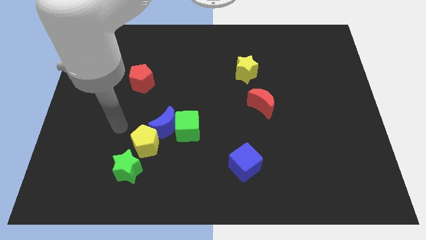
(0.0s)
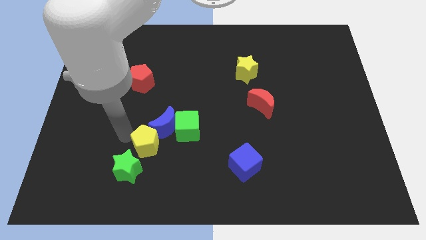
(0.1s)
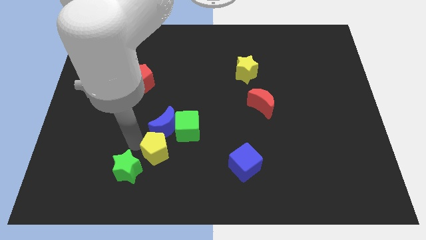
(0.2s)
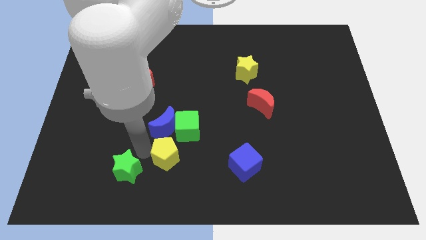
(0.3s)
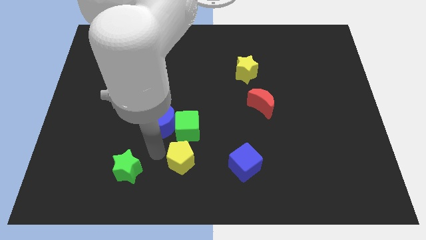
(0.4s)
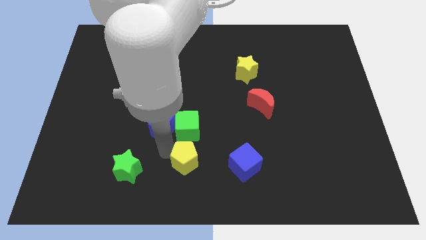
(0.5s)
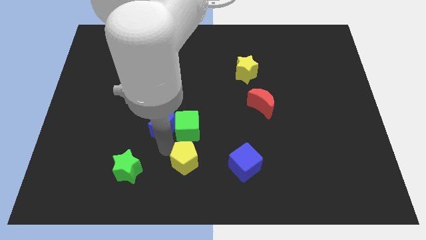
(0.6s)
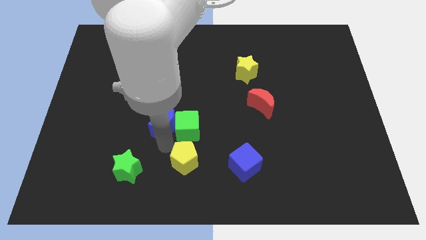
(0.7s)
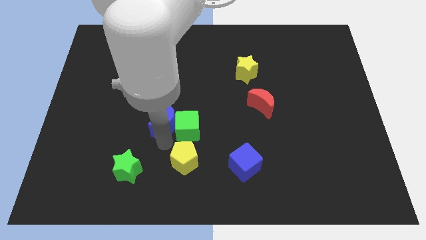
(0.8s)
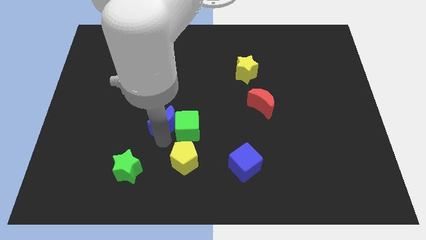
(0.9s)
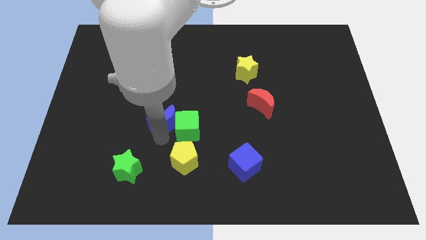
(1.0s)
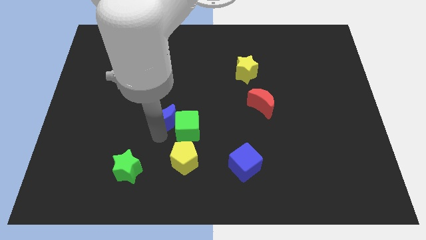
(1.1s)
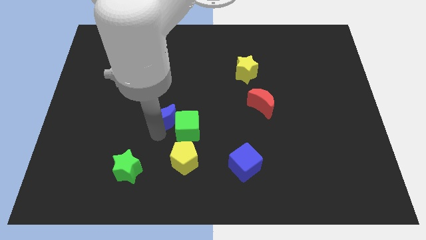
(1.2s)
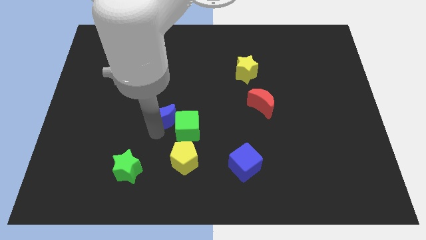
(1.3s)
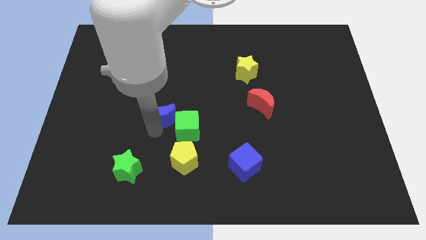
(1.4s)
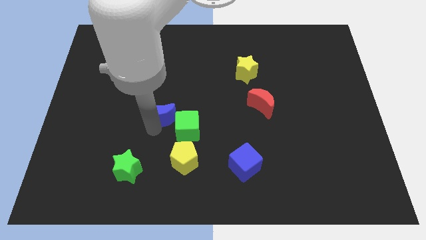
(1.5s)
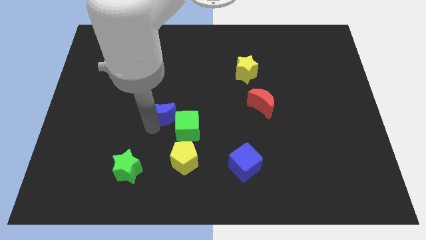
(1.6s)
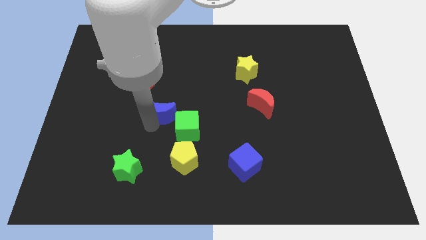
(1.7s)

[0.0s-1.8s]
separate the blue moon from the green cube and yellow pentagon

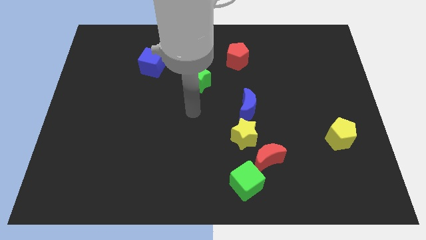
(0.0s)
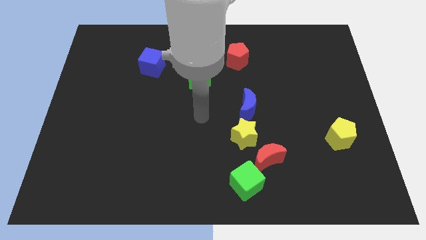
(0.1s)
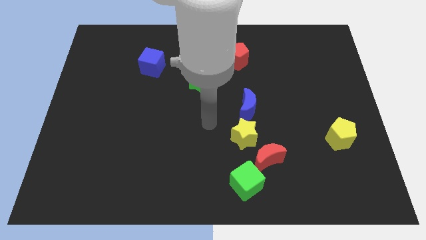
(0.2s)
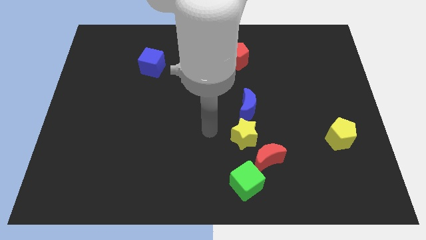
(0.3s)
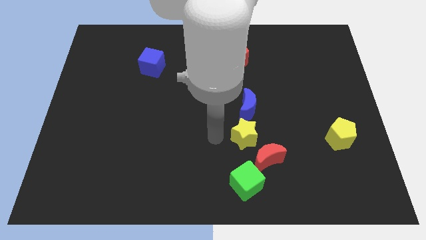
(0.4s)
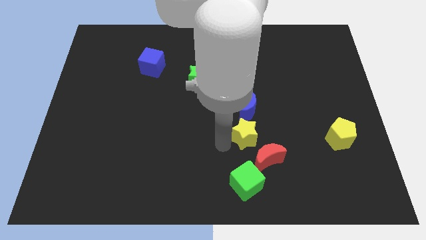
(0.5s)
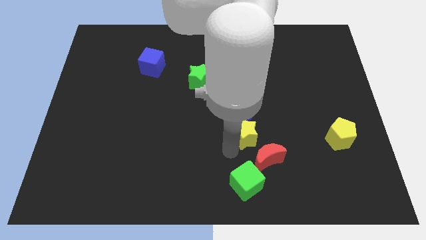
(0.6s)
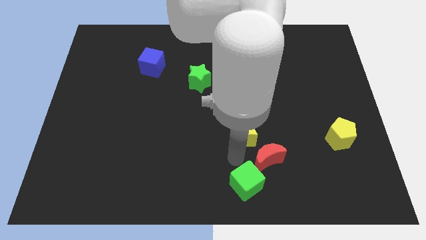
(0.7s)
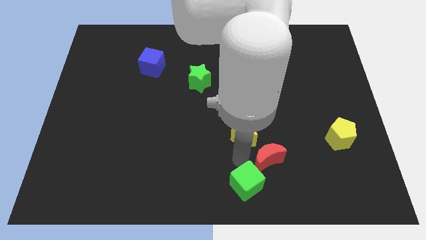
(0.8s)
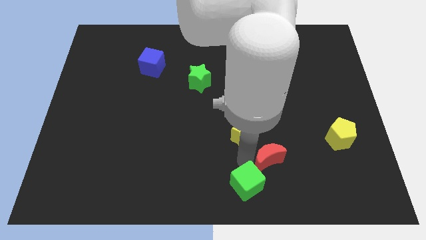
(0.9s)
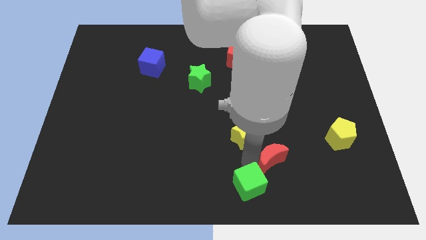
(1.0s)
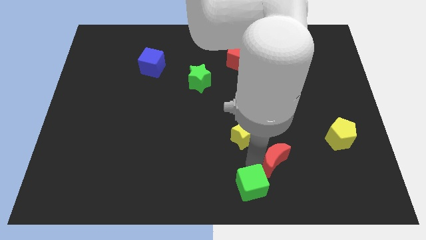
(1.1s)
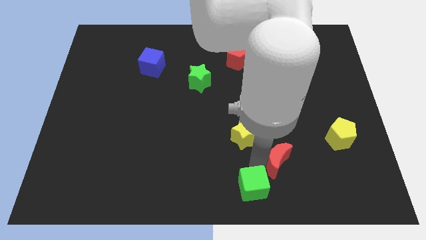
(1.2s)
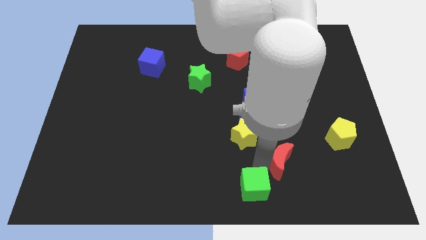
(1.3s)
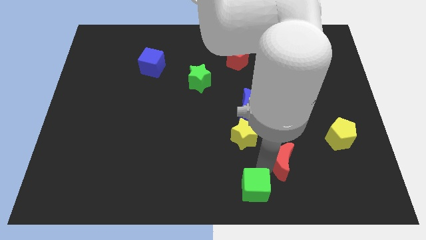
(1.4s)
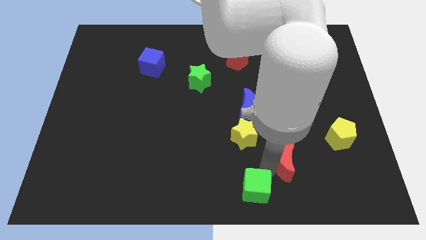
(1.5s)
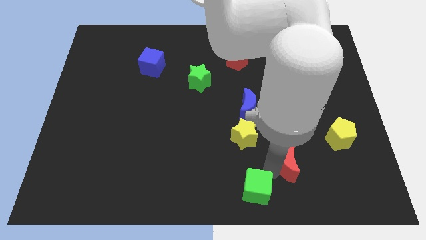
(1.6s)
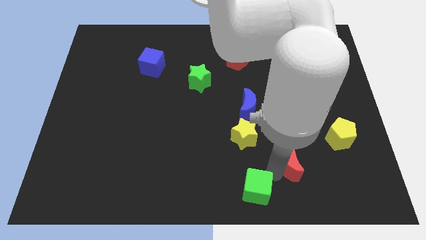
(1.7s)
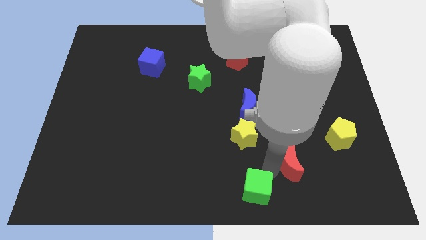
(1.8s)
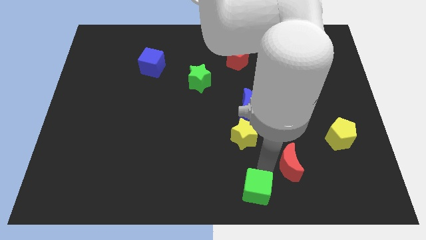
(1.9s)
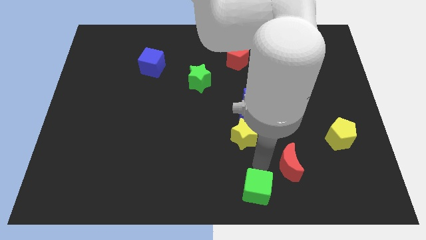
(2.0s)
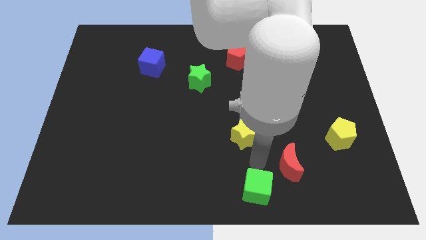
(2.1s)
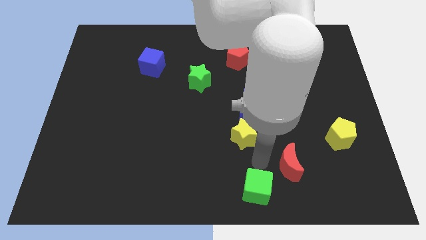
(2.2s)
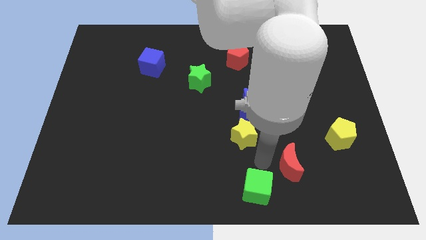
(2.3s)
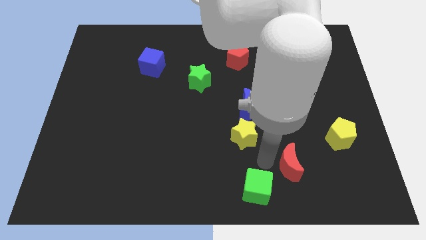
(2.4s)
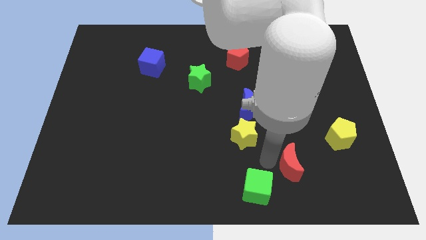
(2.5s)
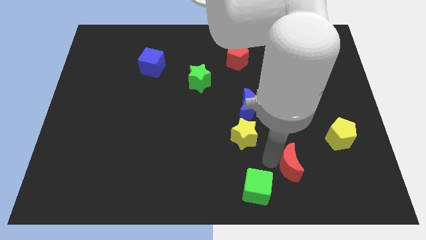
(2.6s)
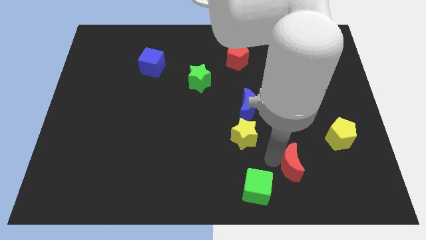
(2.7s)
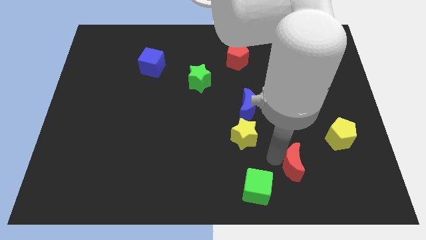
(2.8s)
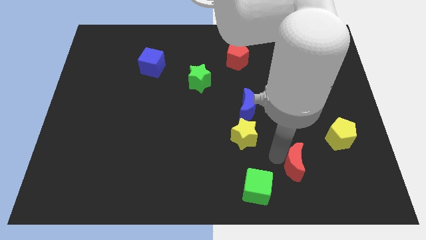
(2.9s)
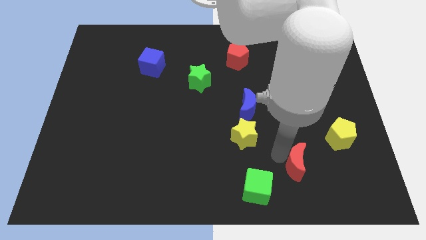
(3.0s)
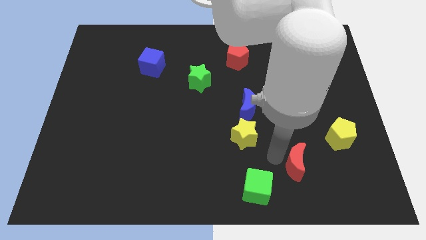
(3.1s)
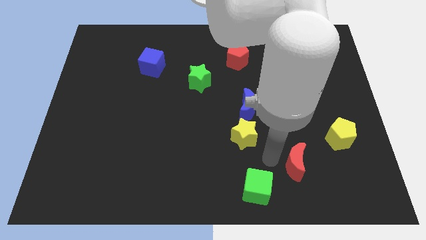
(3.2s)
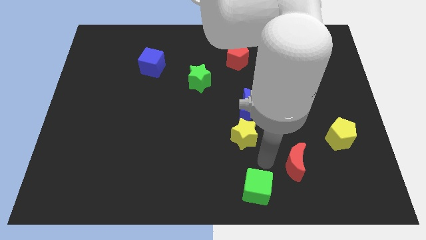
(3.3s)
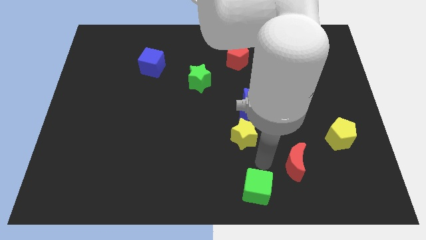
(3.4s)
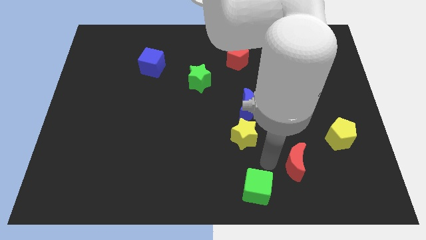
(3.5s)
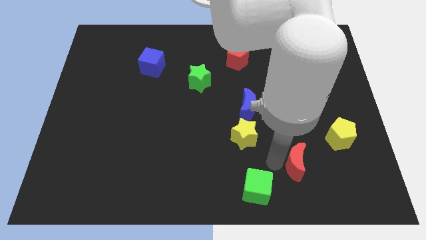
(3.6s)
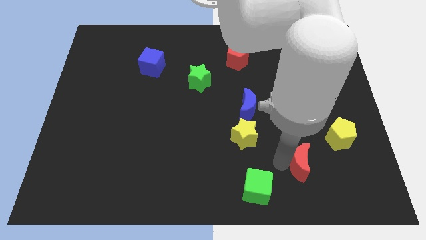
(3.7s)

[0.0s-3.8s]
move the red moon away from the yellow star and green cube

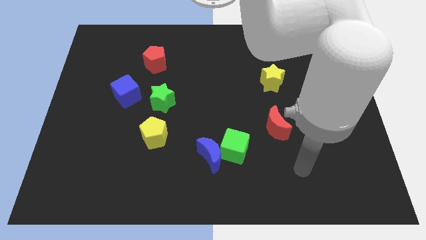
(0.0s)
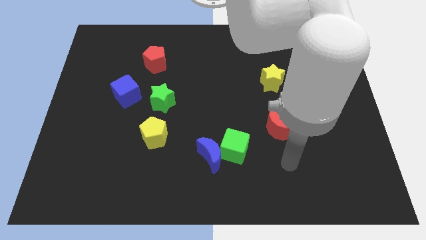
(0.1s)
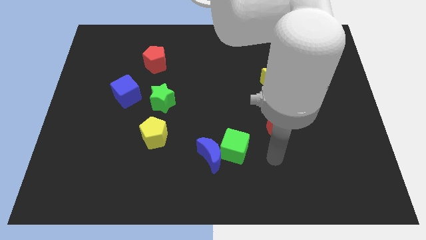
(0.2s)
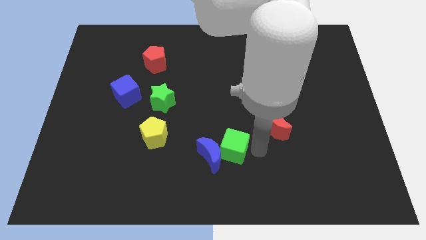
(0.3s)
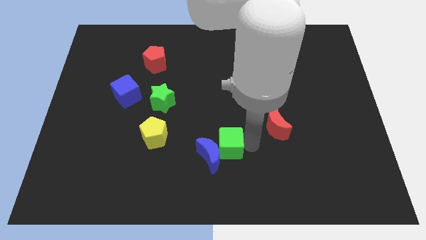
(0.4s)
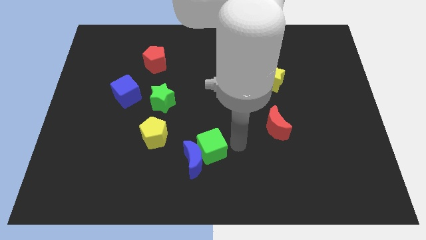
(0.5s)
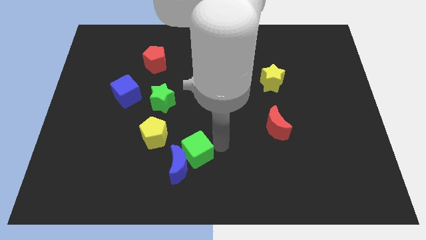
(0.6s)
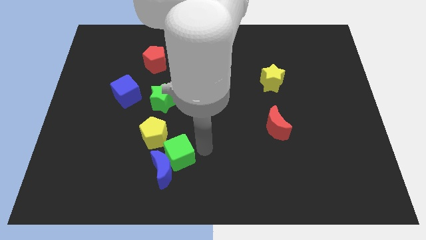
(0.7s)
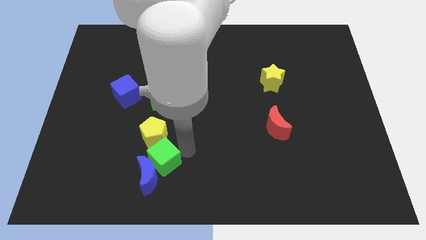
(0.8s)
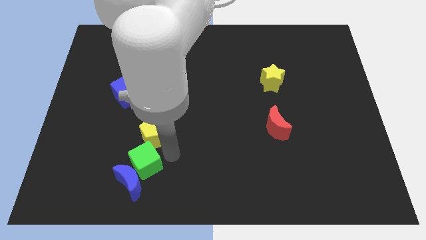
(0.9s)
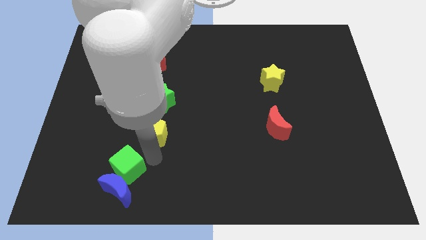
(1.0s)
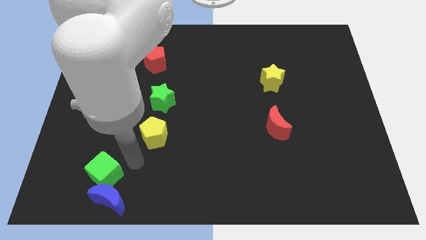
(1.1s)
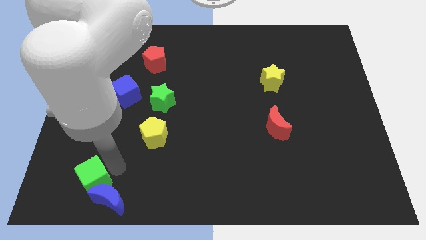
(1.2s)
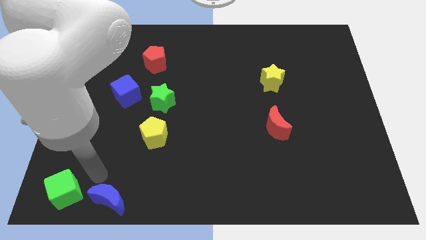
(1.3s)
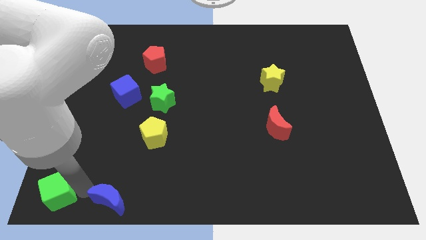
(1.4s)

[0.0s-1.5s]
move the blue moon away from the green cube

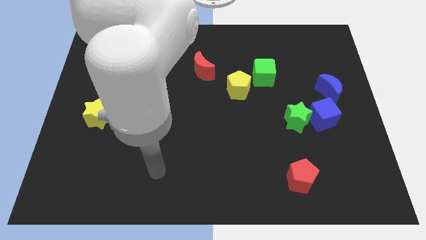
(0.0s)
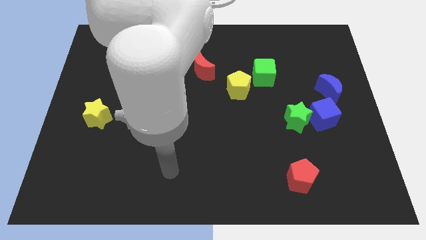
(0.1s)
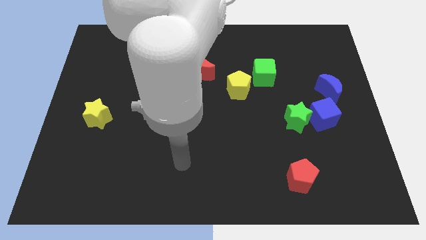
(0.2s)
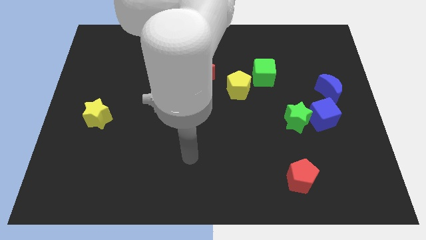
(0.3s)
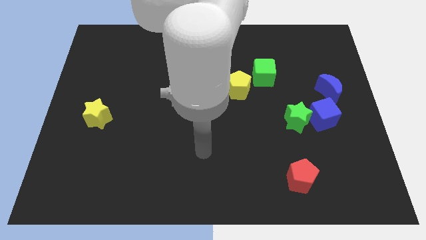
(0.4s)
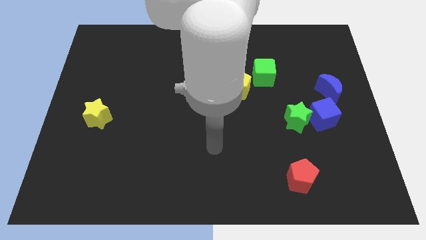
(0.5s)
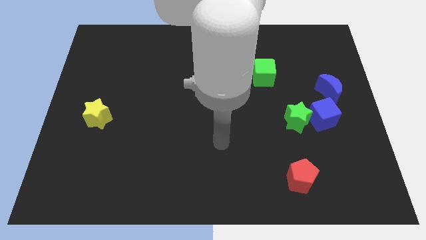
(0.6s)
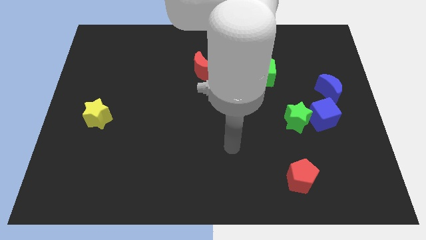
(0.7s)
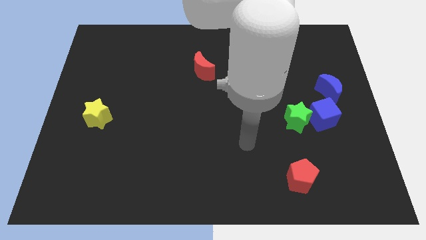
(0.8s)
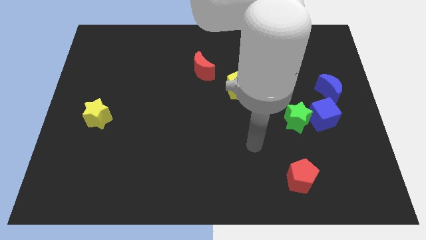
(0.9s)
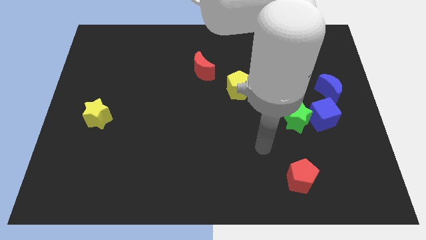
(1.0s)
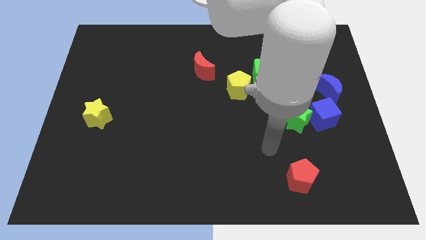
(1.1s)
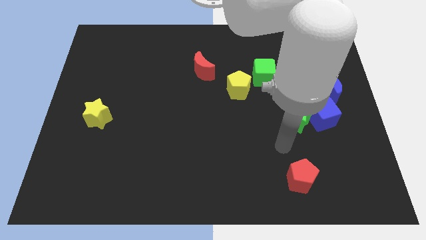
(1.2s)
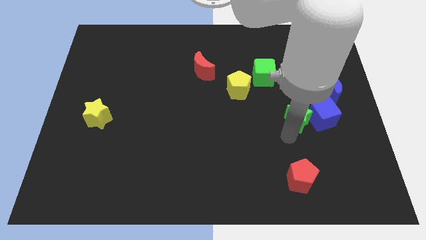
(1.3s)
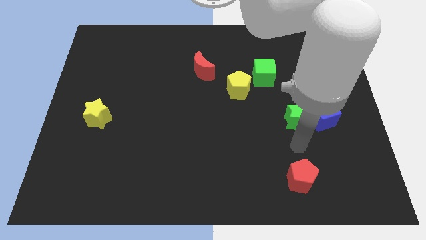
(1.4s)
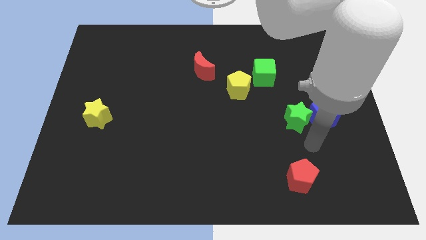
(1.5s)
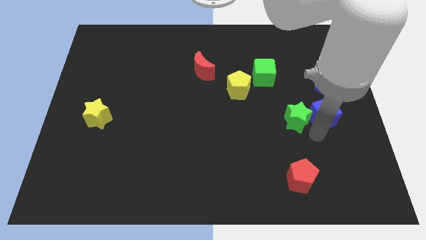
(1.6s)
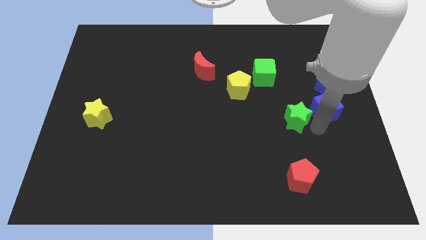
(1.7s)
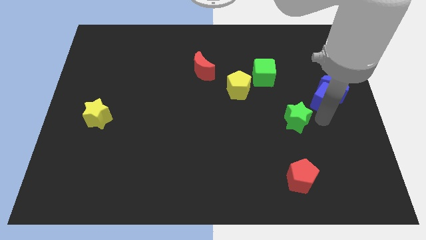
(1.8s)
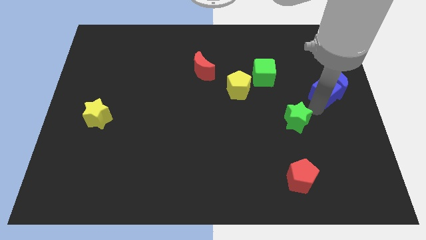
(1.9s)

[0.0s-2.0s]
pull the green star apart from the blue cube

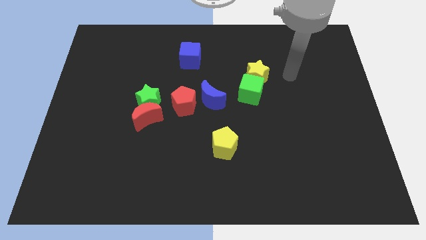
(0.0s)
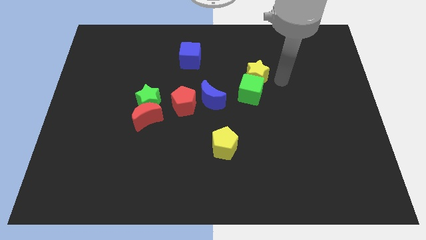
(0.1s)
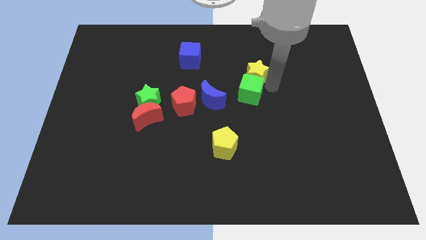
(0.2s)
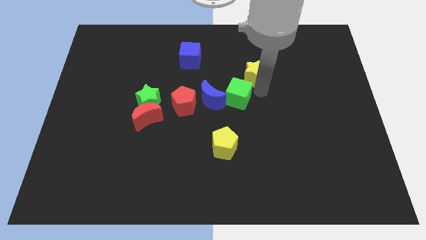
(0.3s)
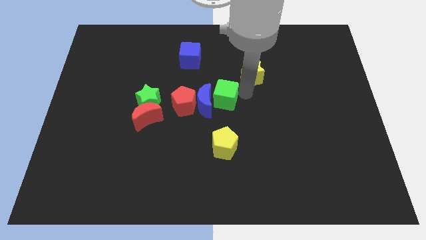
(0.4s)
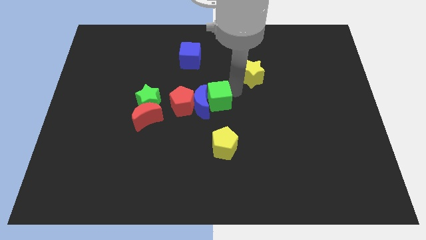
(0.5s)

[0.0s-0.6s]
move the yellow star away from the green cube
